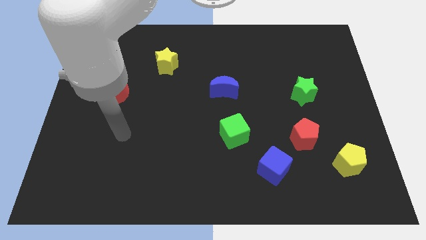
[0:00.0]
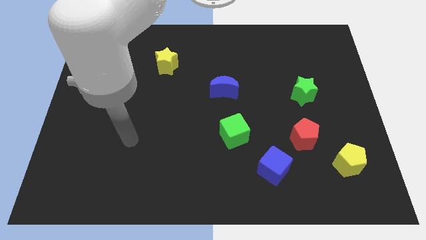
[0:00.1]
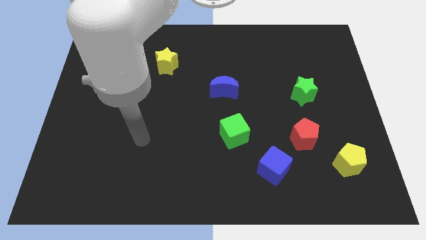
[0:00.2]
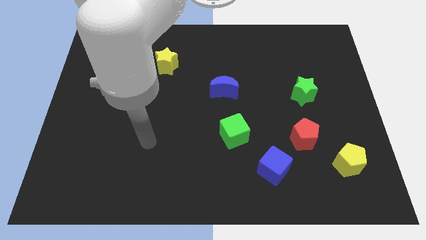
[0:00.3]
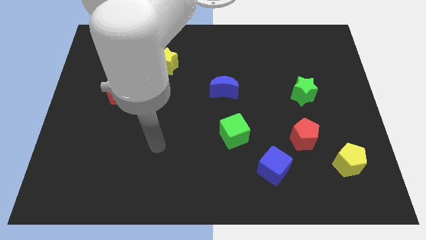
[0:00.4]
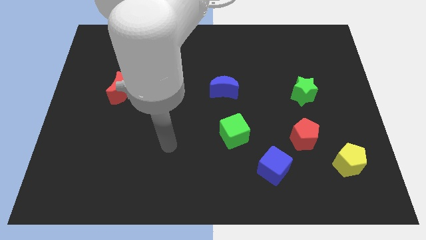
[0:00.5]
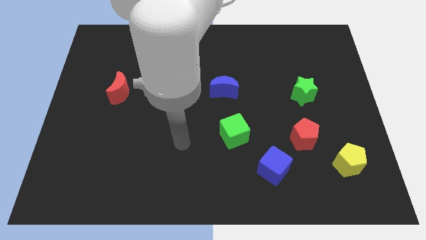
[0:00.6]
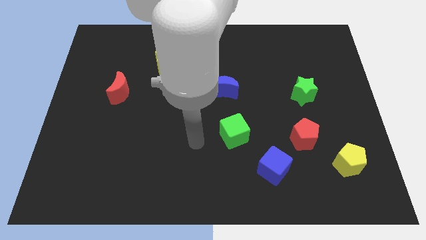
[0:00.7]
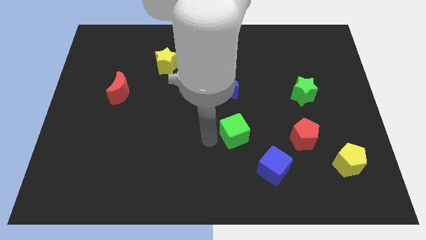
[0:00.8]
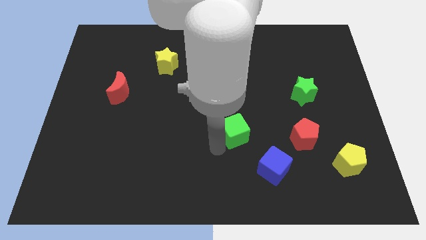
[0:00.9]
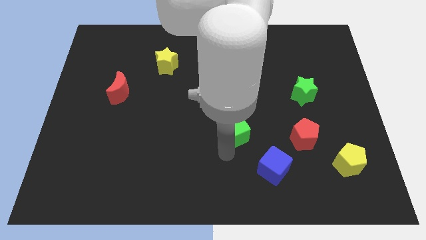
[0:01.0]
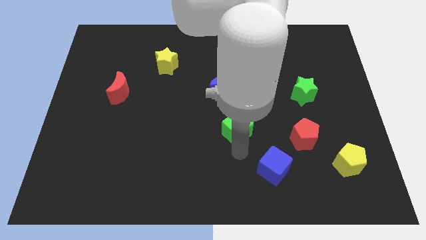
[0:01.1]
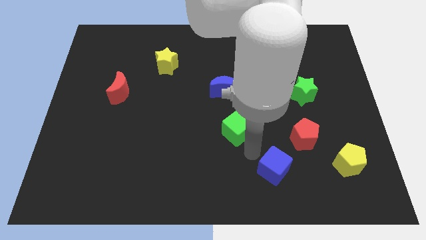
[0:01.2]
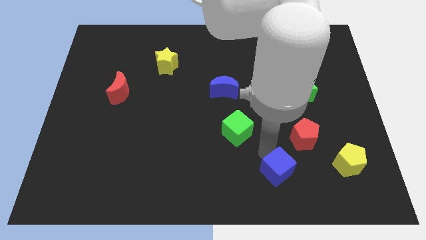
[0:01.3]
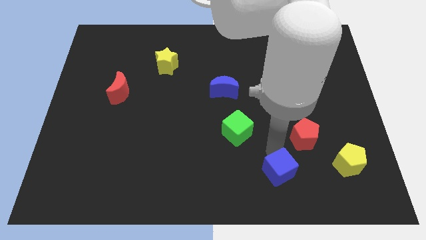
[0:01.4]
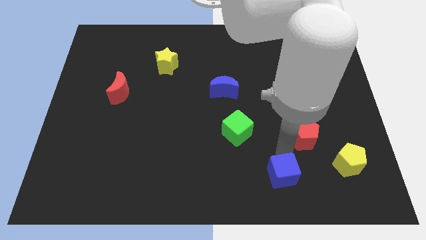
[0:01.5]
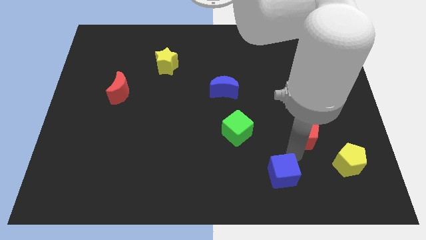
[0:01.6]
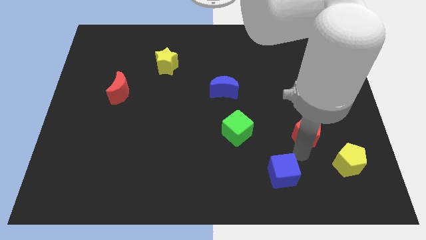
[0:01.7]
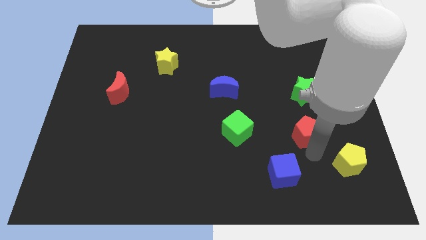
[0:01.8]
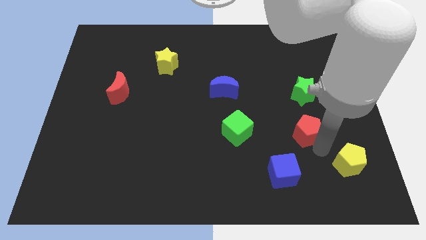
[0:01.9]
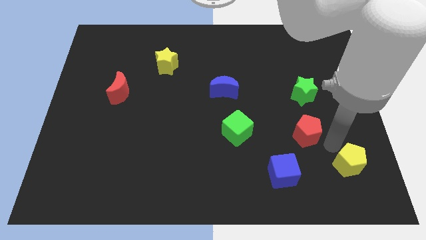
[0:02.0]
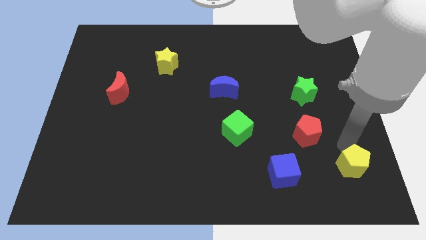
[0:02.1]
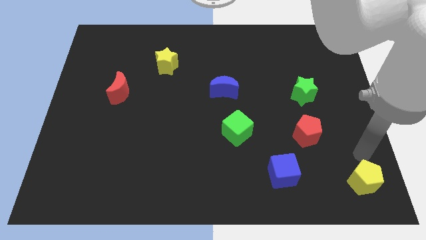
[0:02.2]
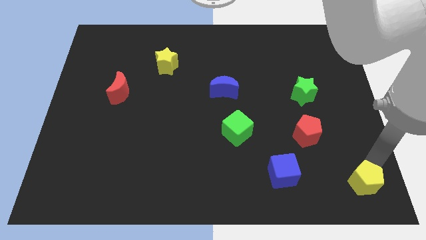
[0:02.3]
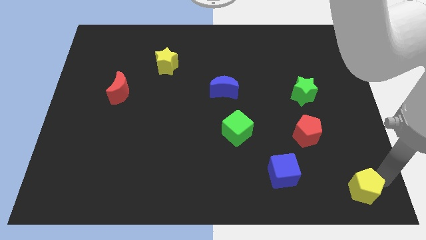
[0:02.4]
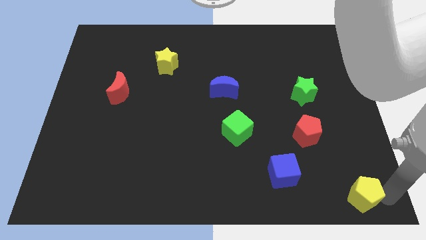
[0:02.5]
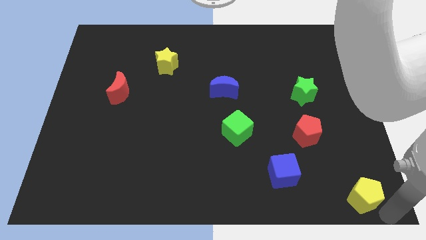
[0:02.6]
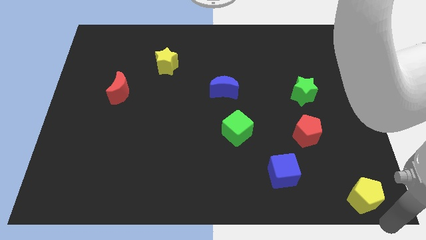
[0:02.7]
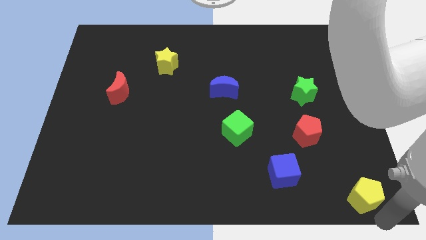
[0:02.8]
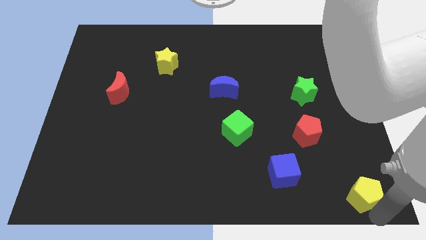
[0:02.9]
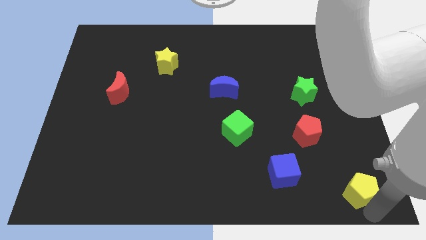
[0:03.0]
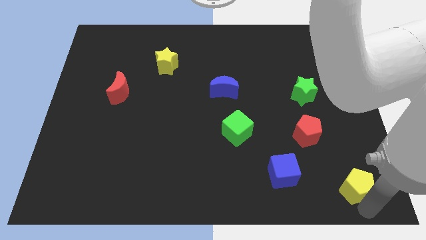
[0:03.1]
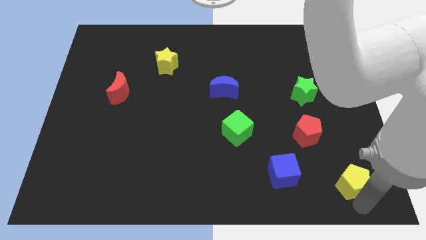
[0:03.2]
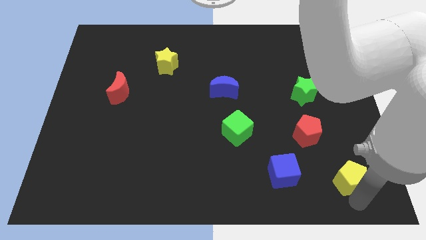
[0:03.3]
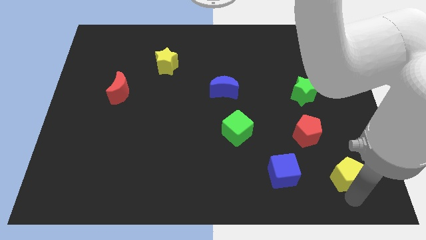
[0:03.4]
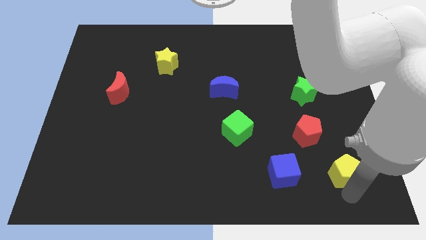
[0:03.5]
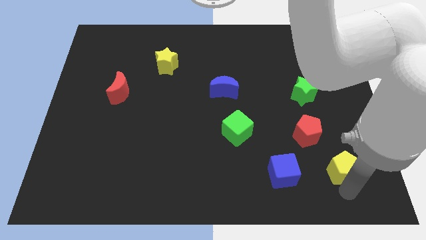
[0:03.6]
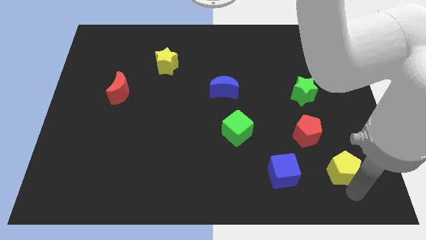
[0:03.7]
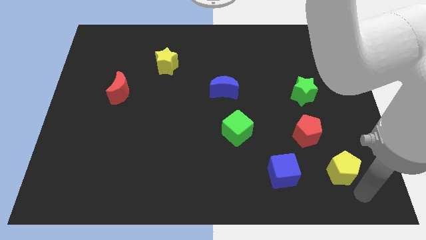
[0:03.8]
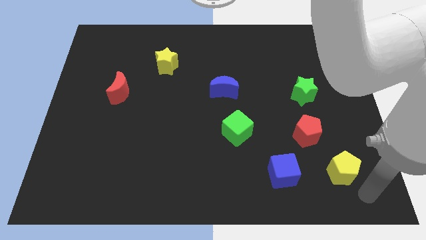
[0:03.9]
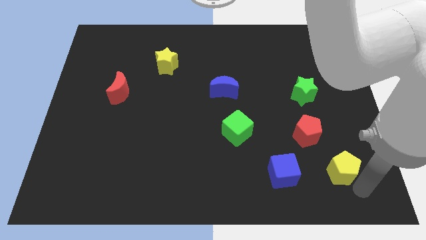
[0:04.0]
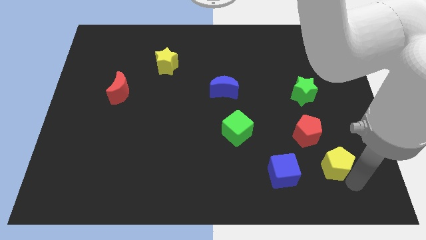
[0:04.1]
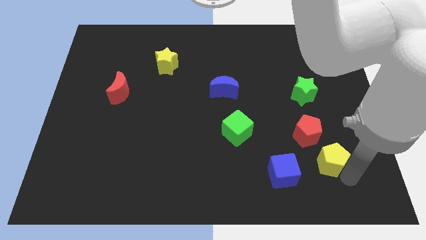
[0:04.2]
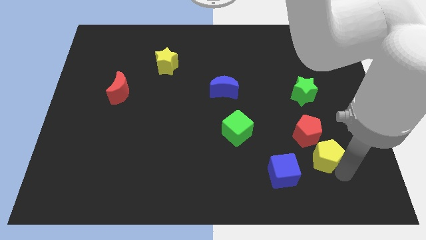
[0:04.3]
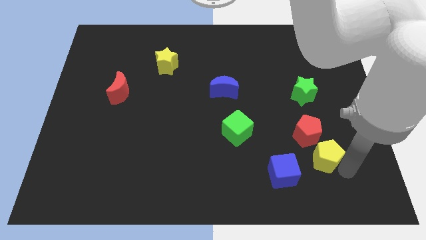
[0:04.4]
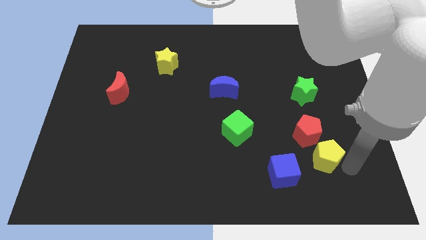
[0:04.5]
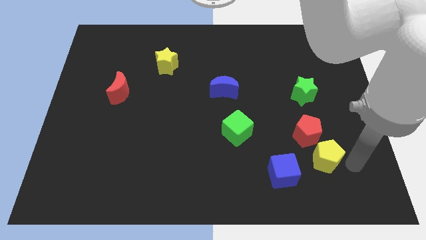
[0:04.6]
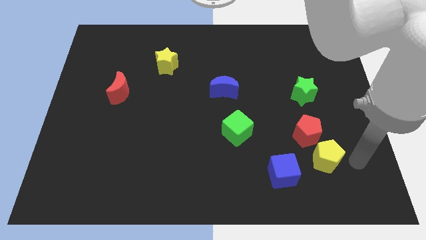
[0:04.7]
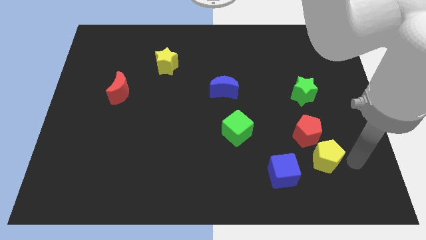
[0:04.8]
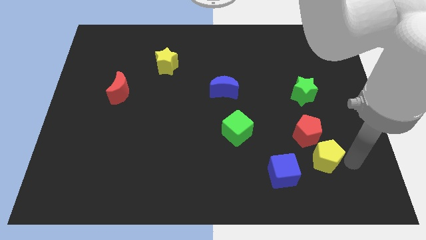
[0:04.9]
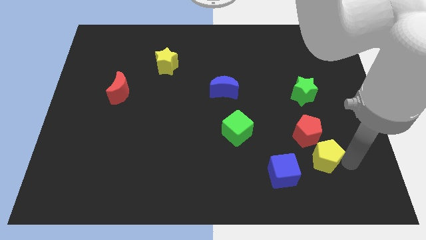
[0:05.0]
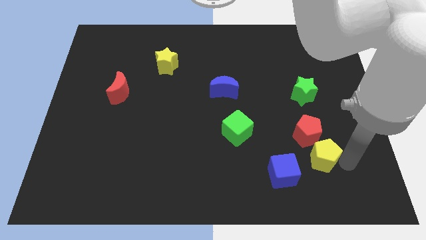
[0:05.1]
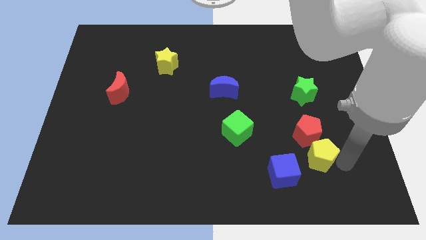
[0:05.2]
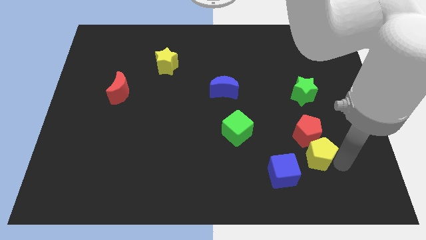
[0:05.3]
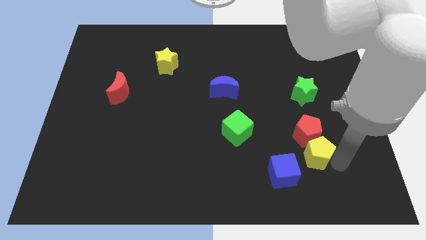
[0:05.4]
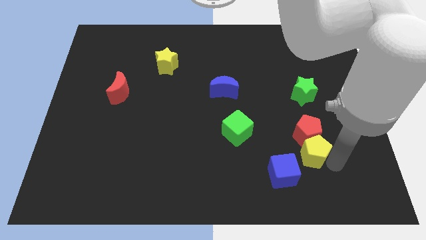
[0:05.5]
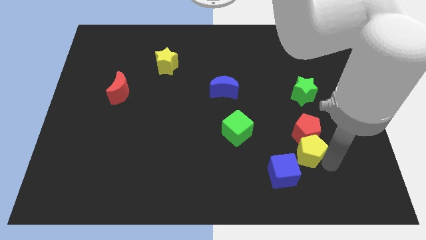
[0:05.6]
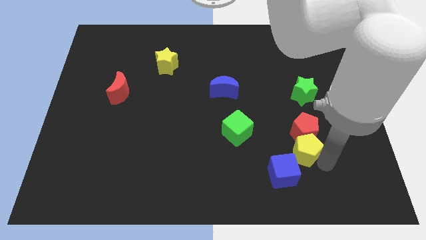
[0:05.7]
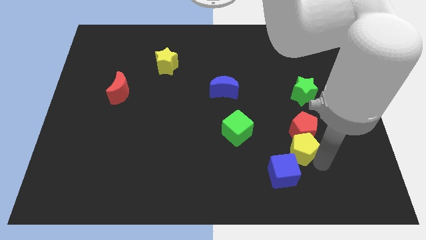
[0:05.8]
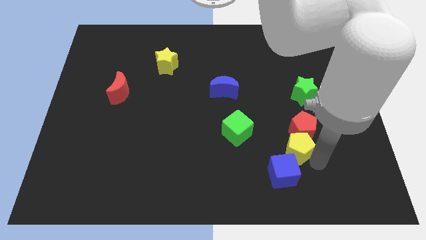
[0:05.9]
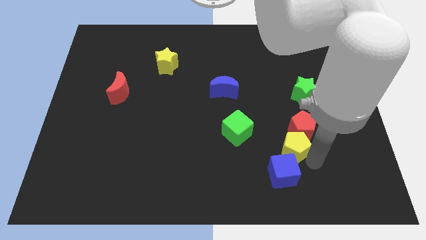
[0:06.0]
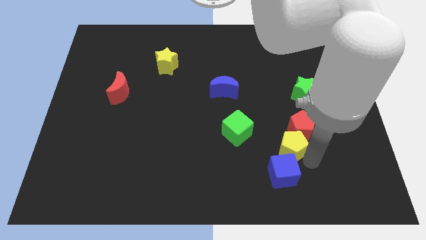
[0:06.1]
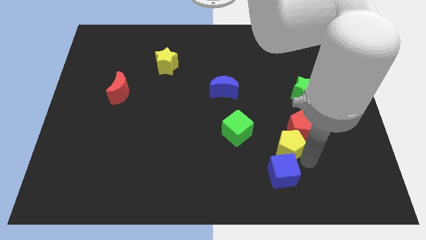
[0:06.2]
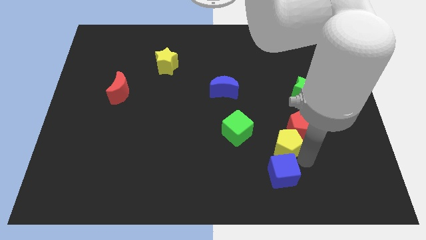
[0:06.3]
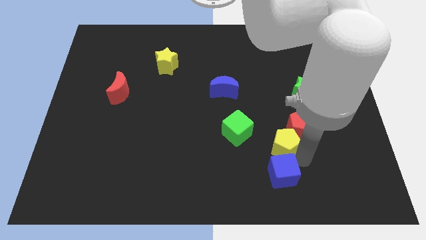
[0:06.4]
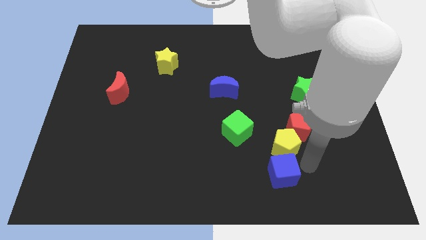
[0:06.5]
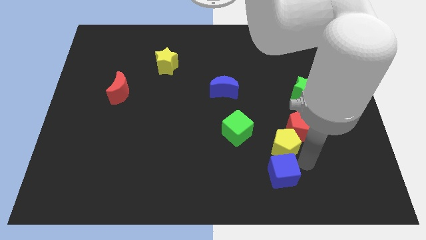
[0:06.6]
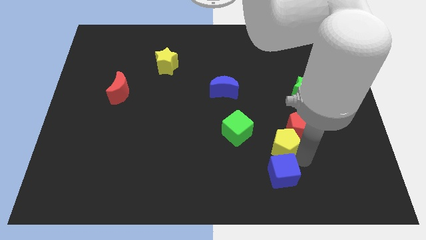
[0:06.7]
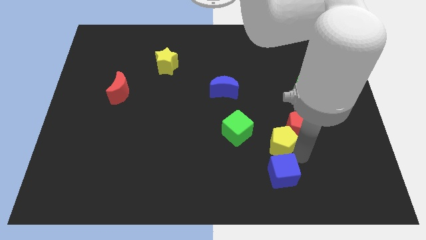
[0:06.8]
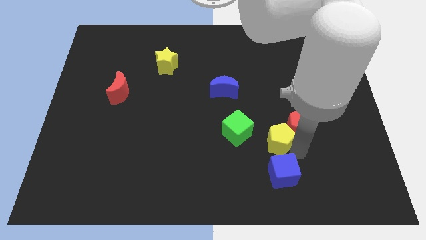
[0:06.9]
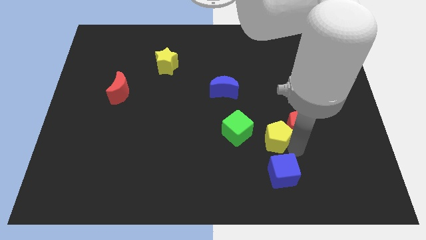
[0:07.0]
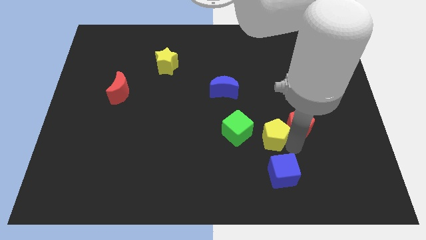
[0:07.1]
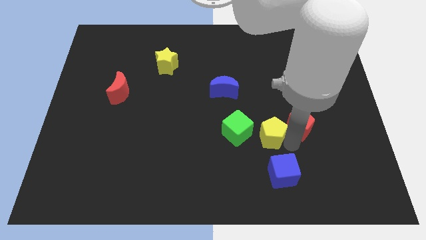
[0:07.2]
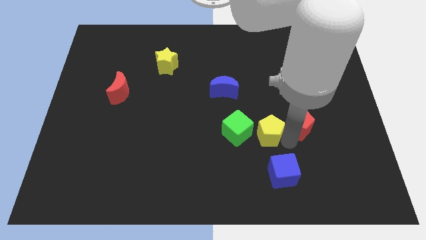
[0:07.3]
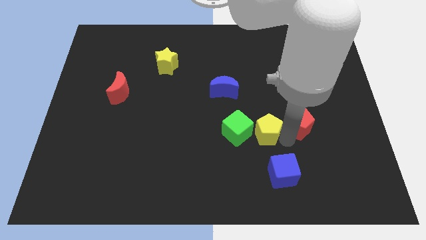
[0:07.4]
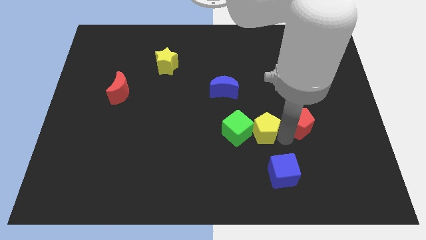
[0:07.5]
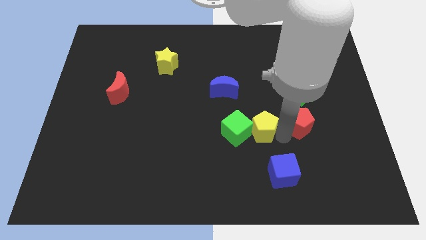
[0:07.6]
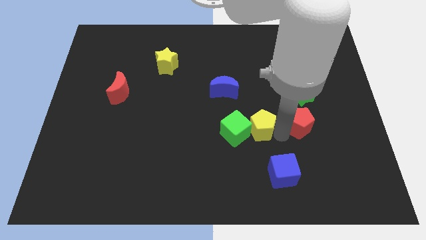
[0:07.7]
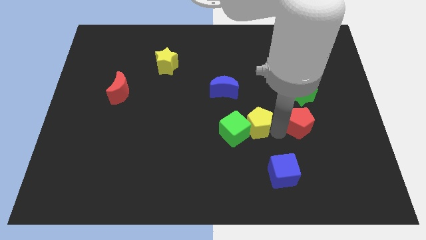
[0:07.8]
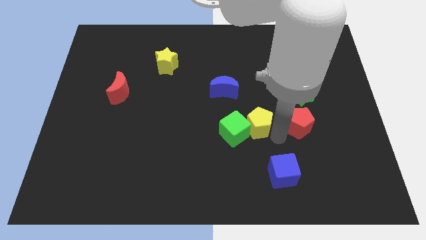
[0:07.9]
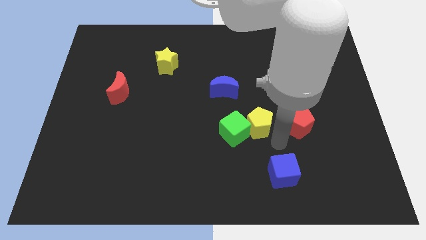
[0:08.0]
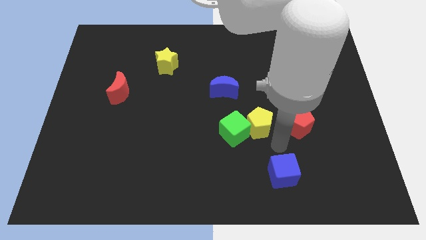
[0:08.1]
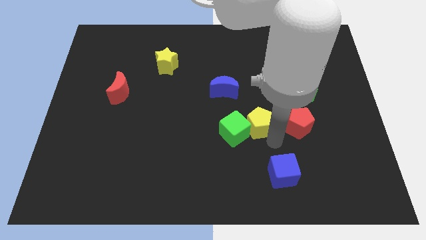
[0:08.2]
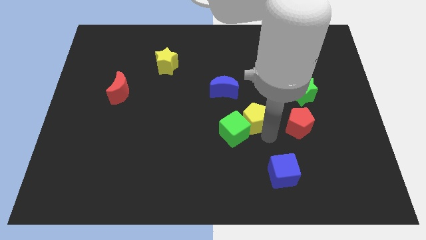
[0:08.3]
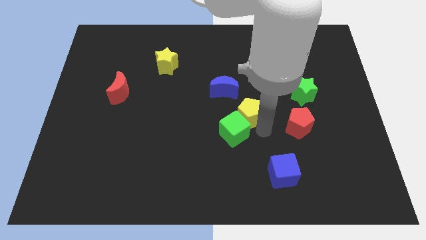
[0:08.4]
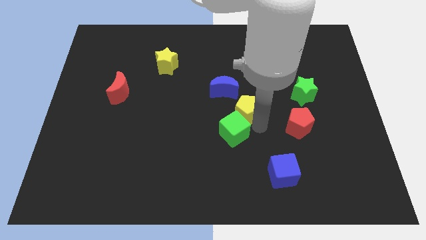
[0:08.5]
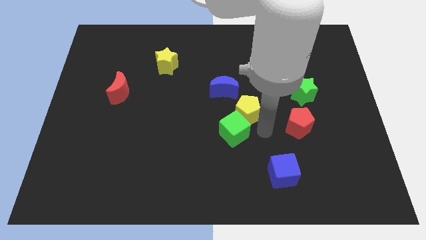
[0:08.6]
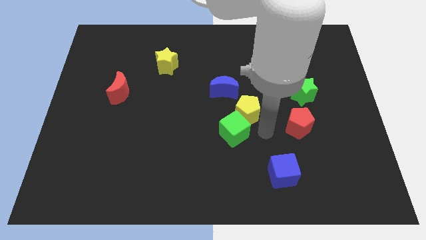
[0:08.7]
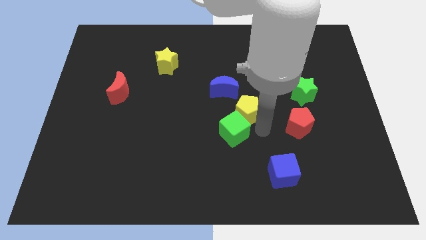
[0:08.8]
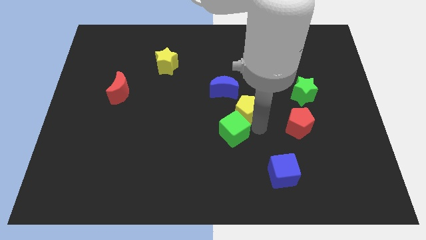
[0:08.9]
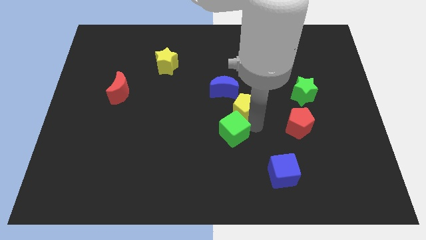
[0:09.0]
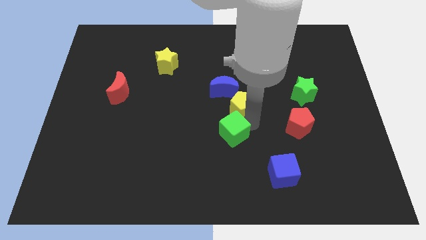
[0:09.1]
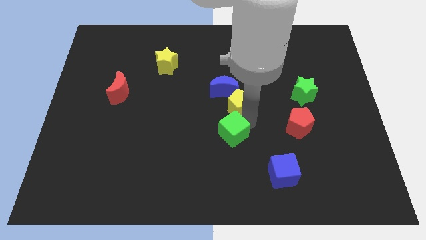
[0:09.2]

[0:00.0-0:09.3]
slide the yellow pentagon close to the blue moon
